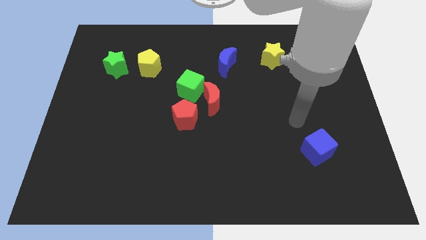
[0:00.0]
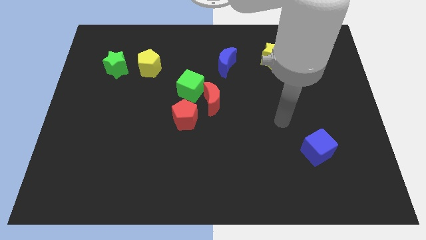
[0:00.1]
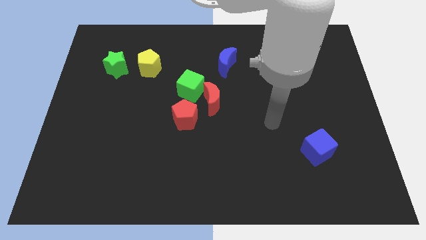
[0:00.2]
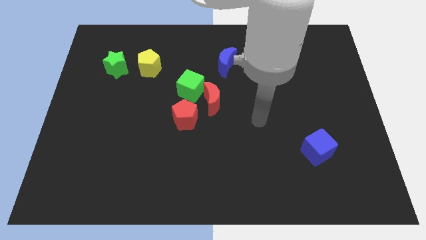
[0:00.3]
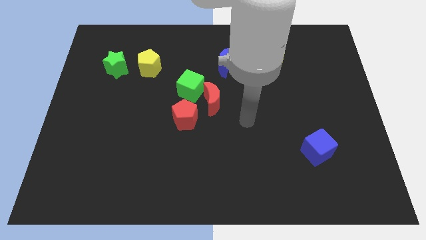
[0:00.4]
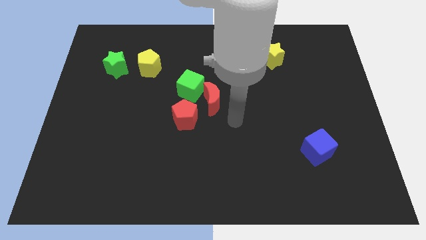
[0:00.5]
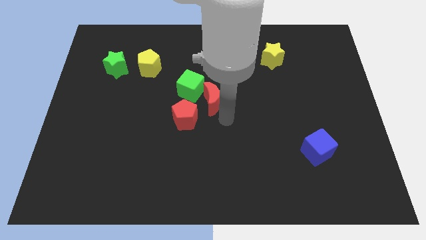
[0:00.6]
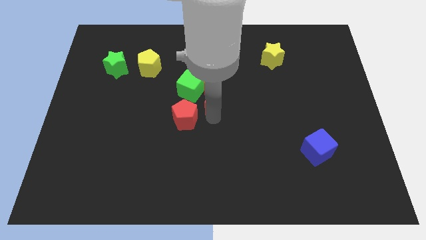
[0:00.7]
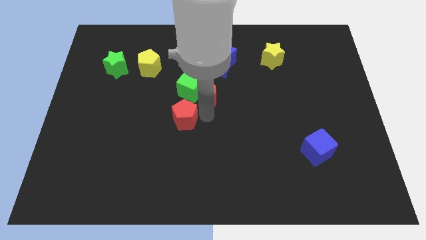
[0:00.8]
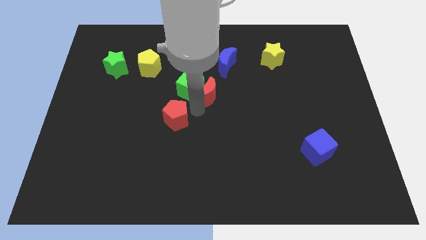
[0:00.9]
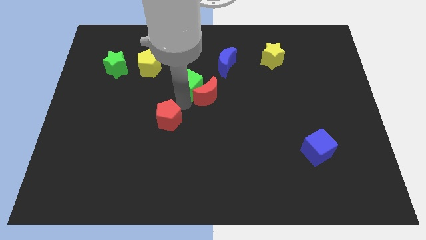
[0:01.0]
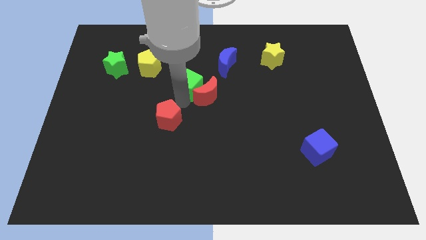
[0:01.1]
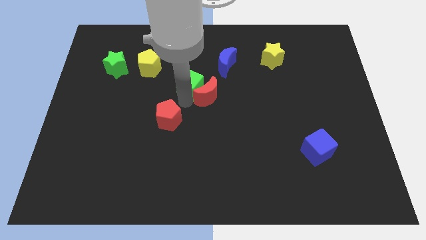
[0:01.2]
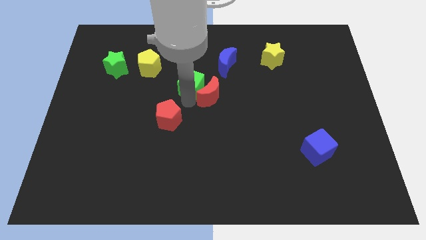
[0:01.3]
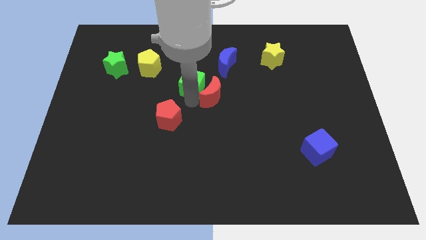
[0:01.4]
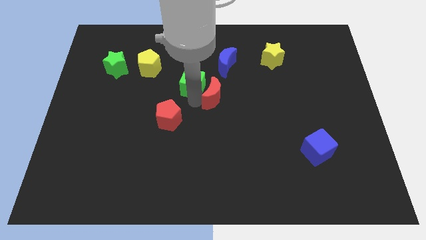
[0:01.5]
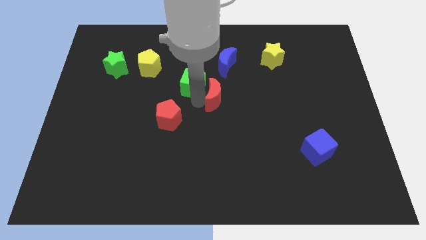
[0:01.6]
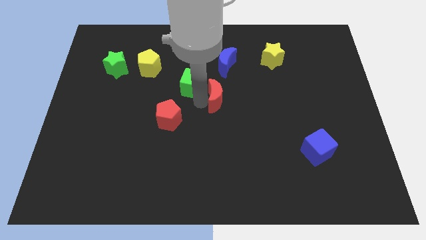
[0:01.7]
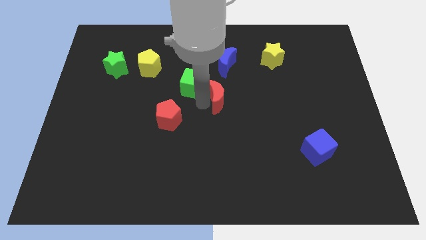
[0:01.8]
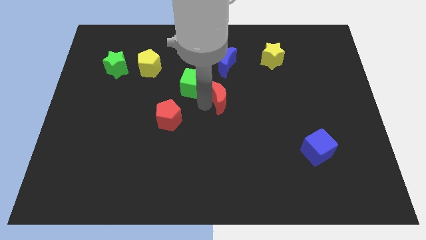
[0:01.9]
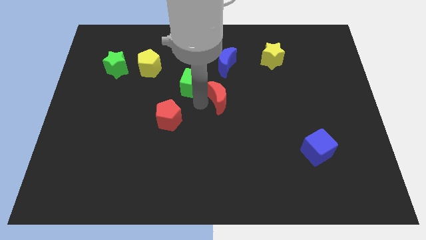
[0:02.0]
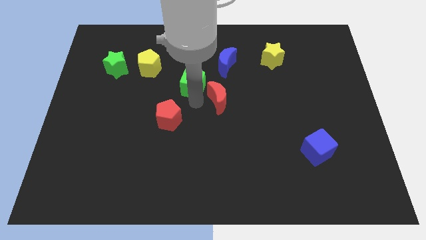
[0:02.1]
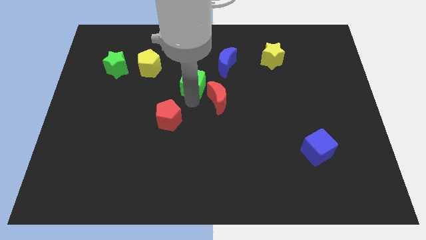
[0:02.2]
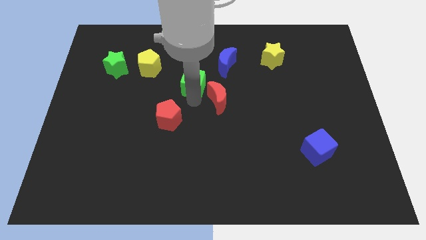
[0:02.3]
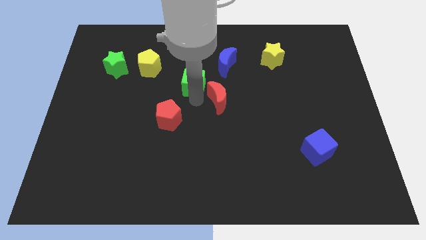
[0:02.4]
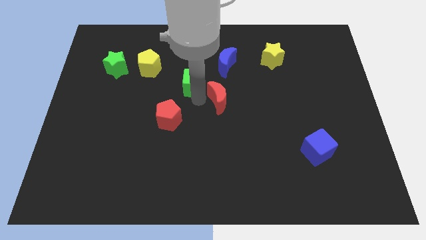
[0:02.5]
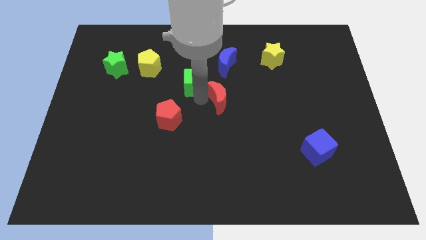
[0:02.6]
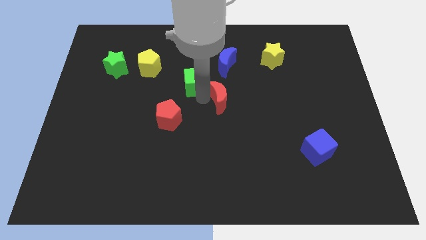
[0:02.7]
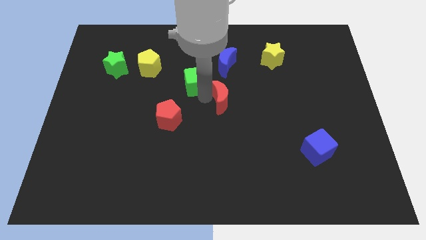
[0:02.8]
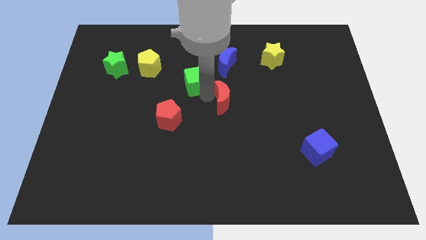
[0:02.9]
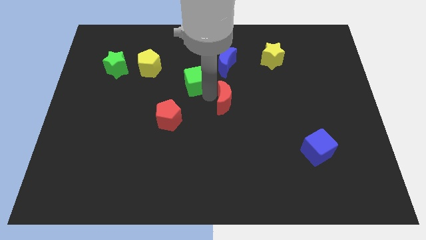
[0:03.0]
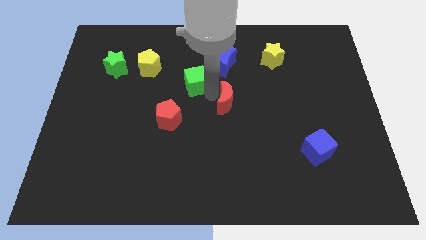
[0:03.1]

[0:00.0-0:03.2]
pull the red moon apart from the green cube and red pentagon

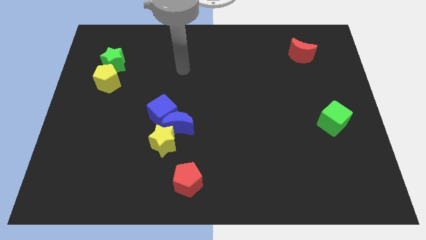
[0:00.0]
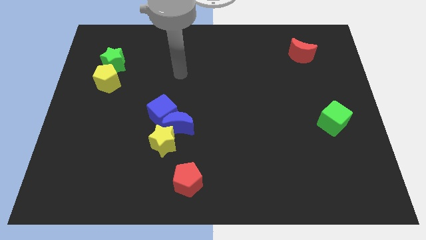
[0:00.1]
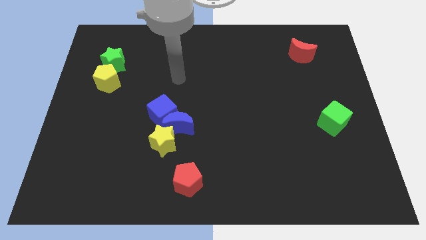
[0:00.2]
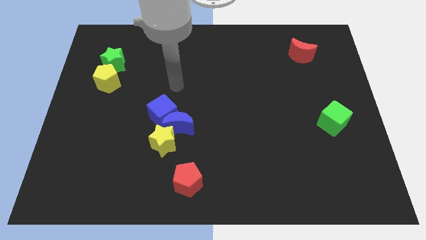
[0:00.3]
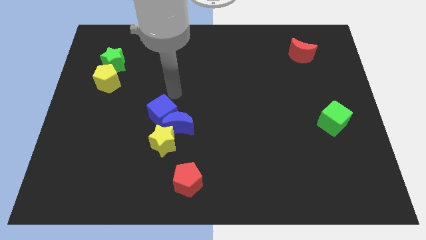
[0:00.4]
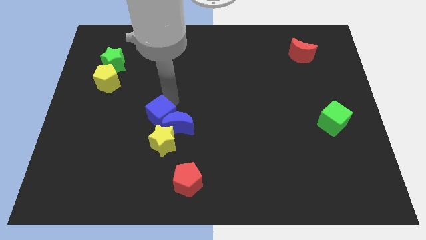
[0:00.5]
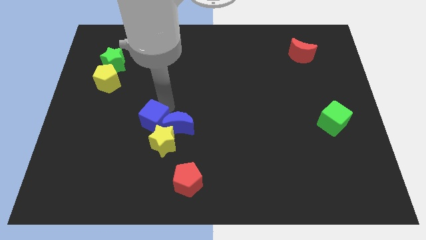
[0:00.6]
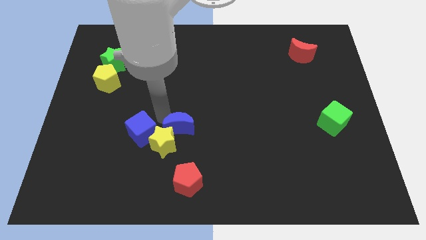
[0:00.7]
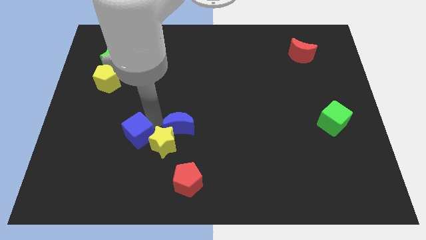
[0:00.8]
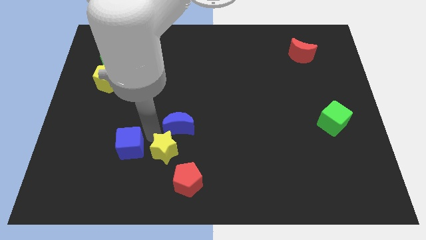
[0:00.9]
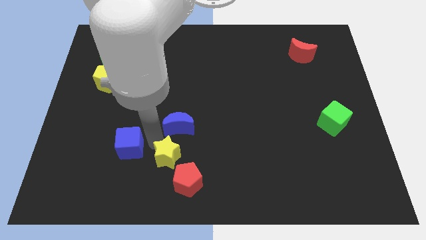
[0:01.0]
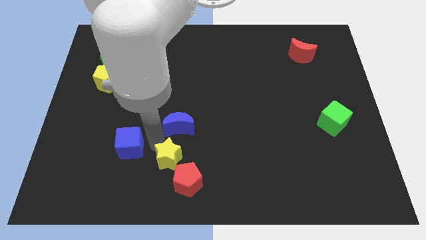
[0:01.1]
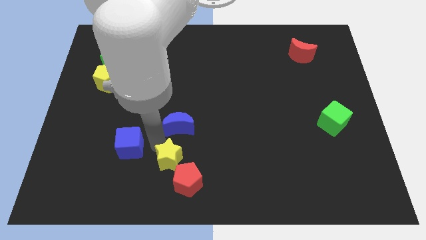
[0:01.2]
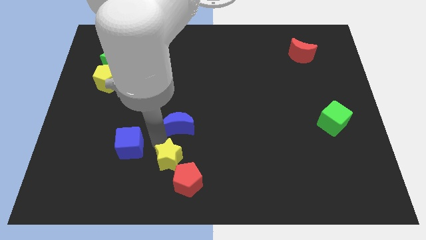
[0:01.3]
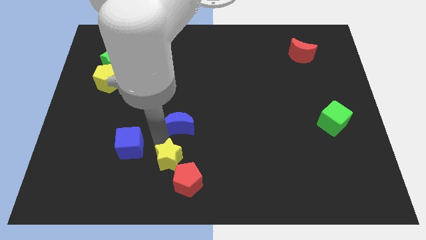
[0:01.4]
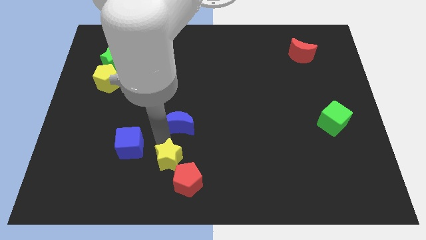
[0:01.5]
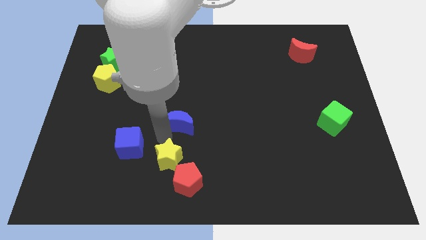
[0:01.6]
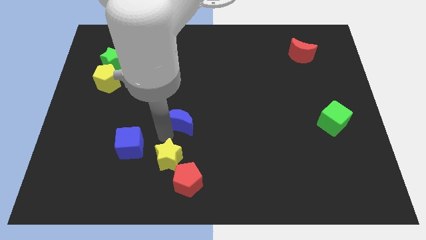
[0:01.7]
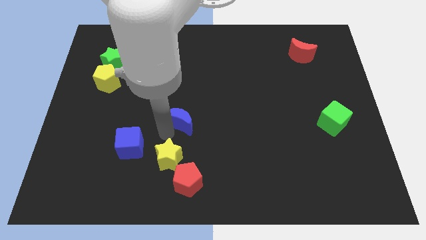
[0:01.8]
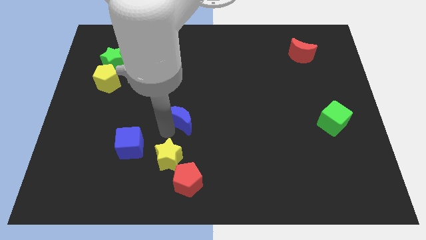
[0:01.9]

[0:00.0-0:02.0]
pull the blue moon apart from the blue cube and yellow star

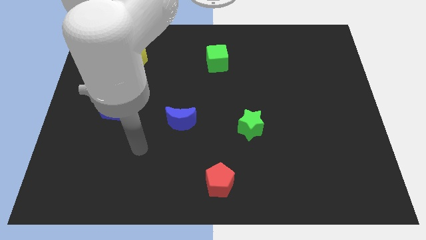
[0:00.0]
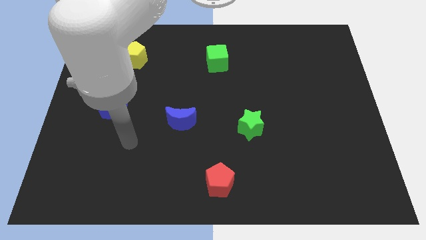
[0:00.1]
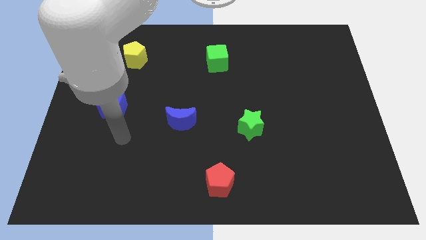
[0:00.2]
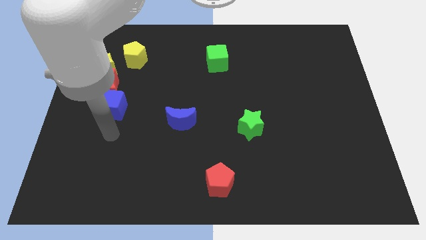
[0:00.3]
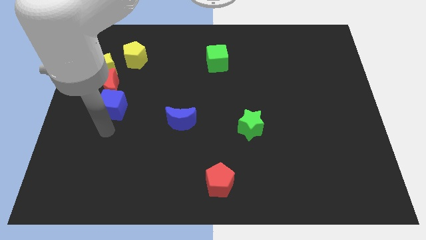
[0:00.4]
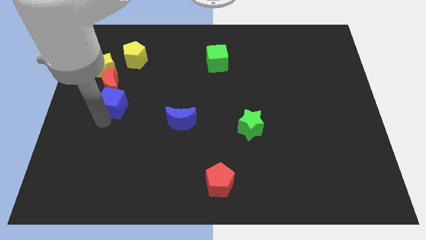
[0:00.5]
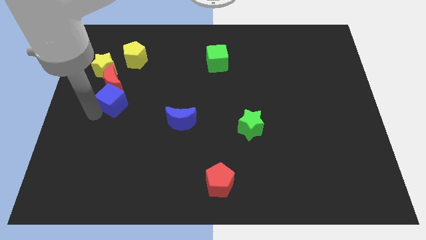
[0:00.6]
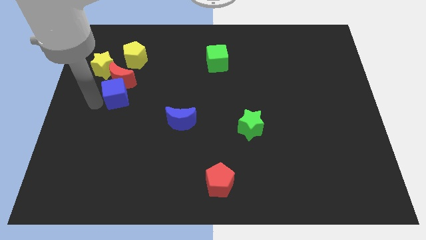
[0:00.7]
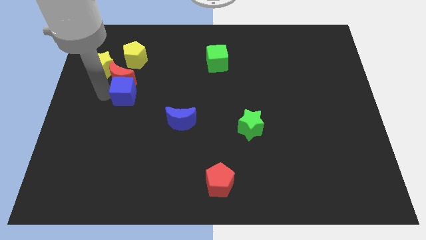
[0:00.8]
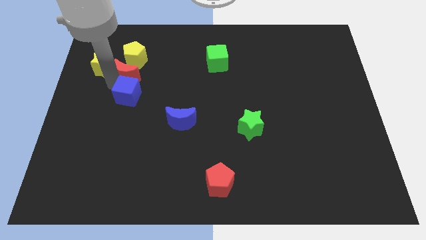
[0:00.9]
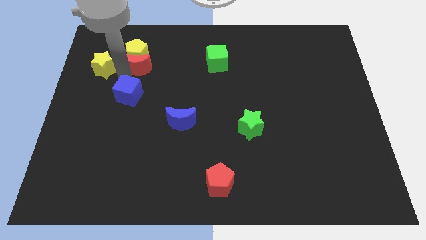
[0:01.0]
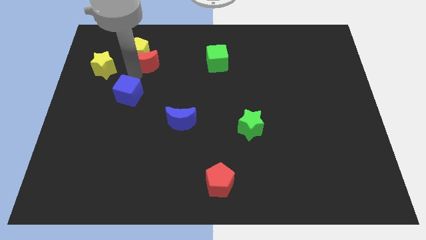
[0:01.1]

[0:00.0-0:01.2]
separate the blue cube from the red moon

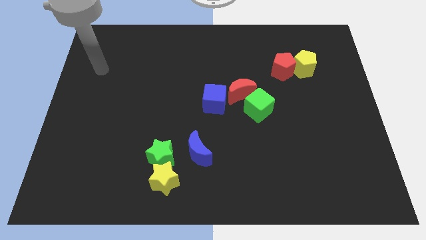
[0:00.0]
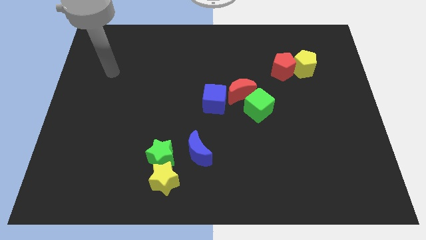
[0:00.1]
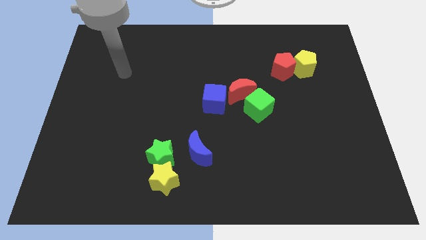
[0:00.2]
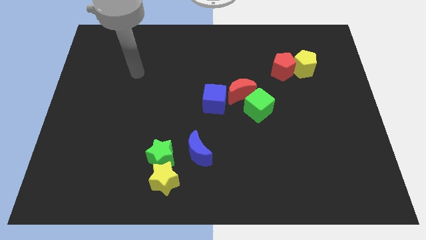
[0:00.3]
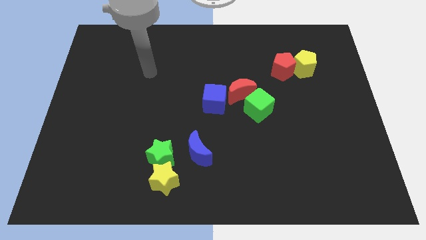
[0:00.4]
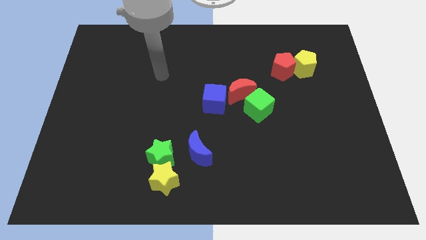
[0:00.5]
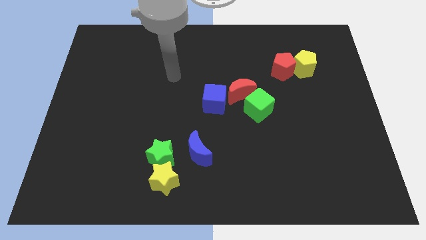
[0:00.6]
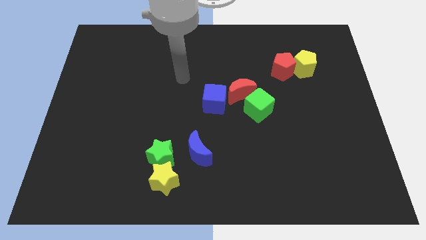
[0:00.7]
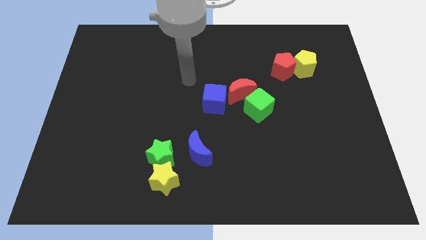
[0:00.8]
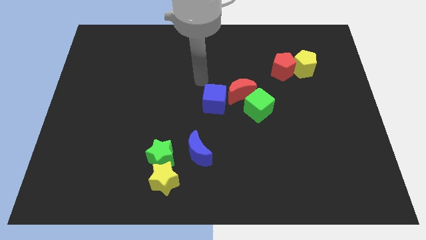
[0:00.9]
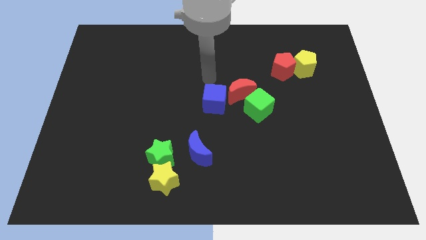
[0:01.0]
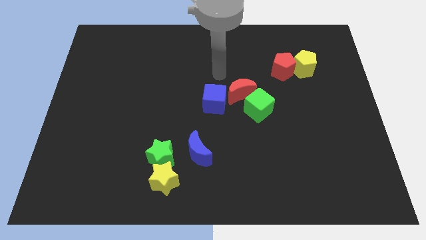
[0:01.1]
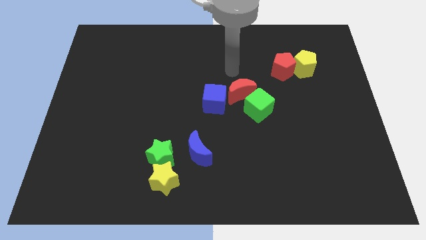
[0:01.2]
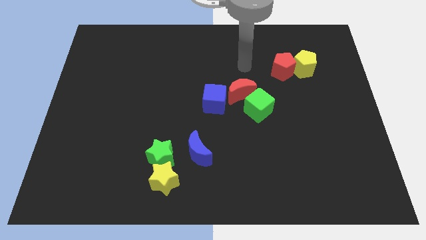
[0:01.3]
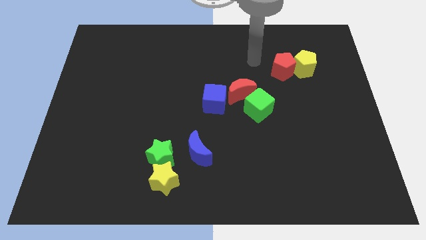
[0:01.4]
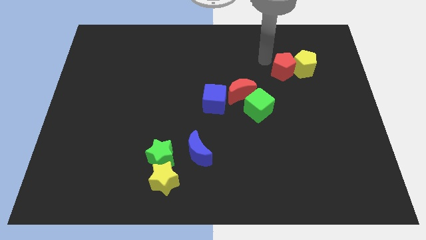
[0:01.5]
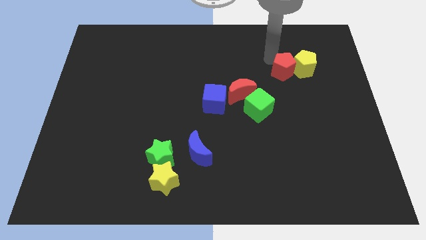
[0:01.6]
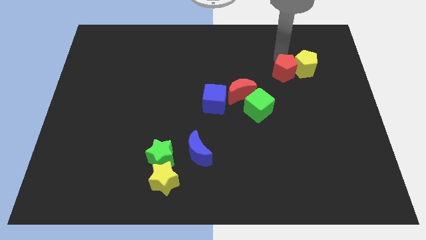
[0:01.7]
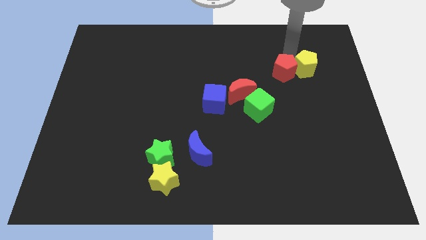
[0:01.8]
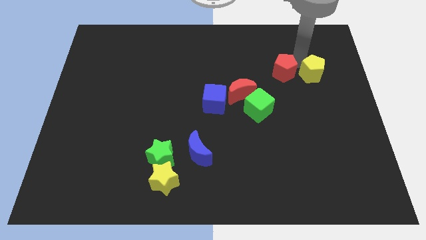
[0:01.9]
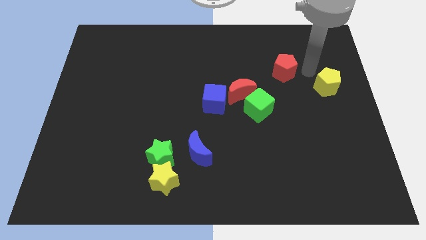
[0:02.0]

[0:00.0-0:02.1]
pull the red pentagon apart from the yellow pentagon

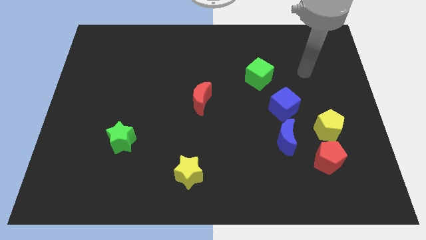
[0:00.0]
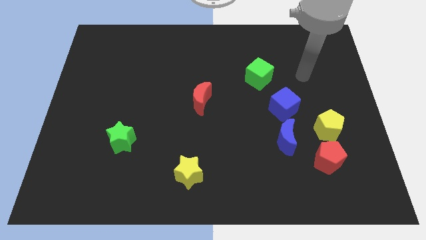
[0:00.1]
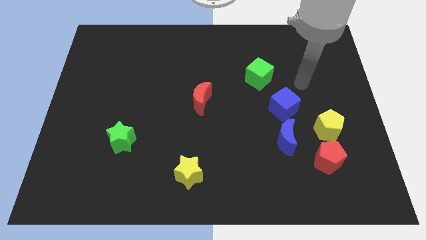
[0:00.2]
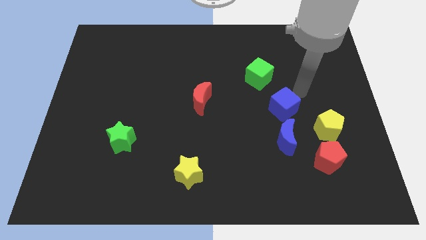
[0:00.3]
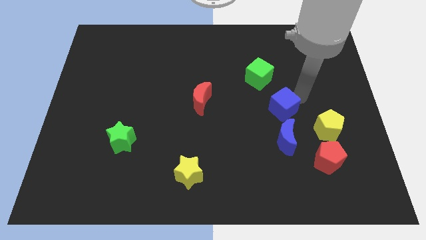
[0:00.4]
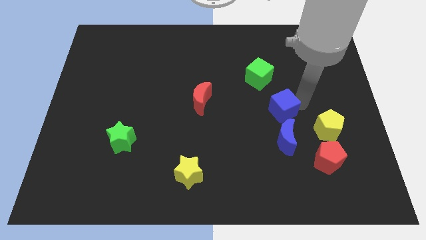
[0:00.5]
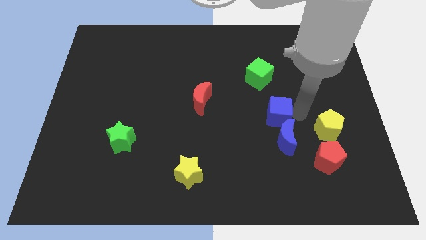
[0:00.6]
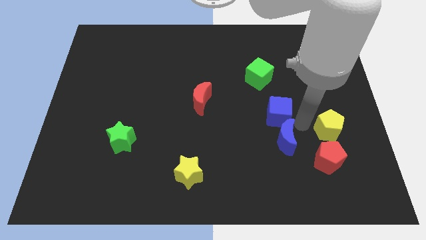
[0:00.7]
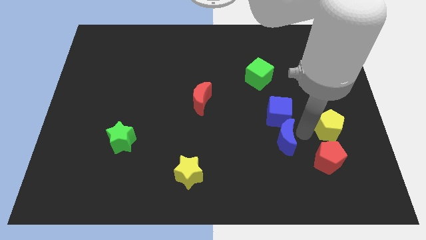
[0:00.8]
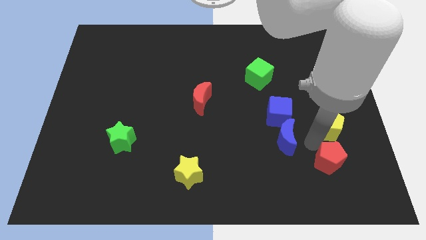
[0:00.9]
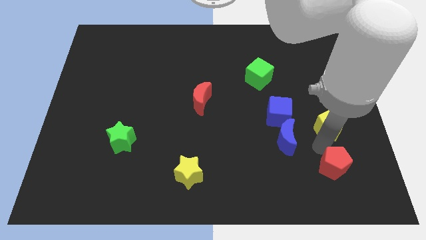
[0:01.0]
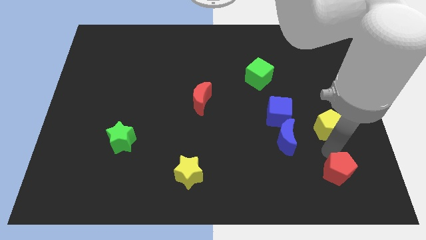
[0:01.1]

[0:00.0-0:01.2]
move the yellow pentagon away from the red pentagon
